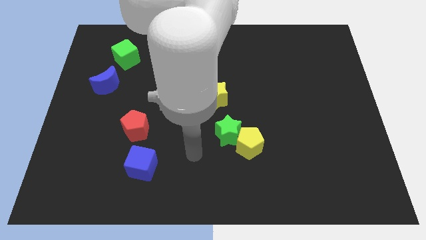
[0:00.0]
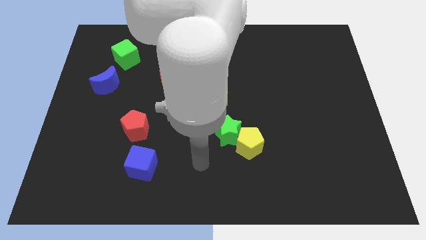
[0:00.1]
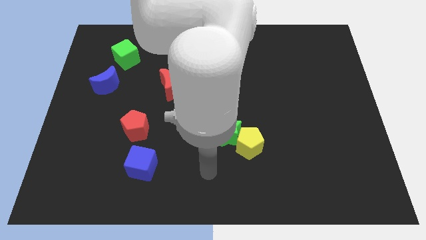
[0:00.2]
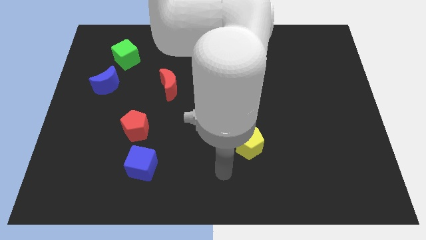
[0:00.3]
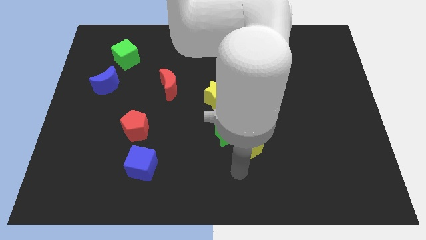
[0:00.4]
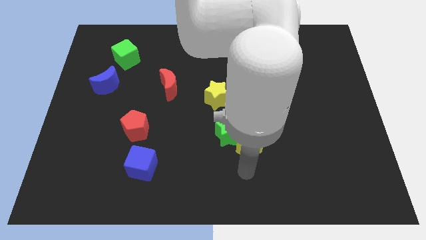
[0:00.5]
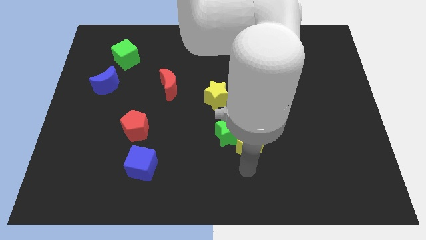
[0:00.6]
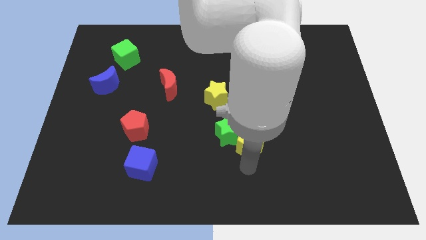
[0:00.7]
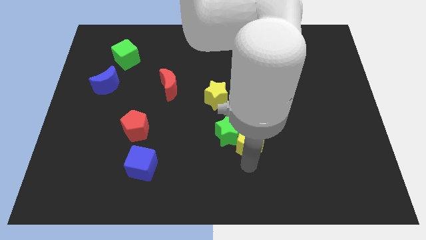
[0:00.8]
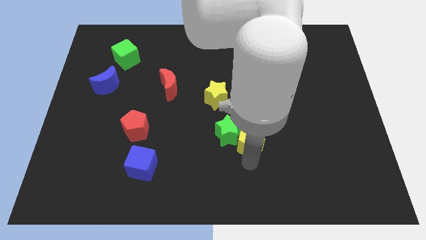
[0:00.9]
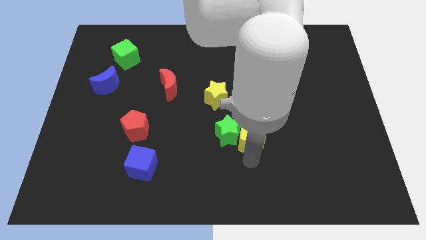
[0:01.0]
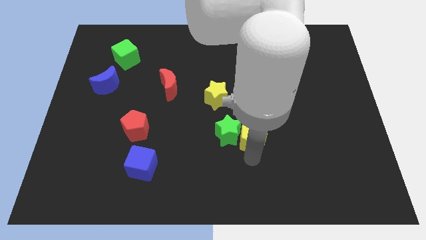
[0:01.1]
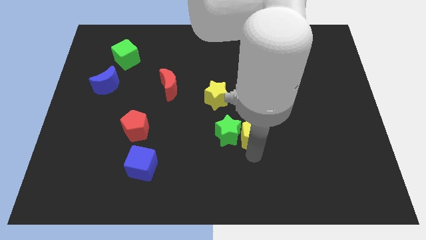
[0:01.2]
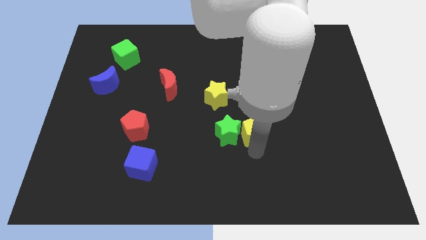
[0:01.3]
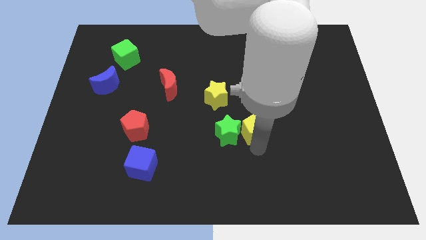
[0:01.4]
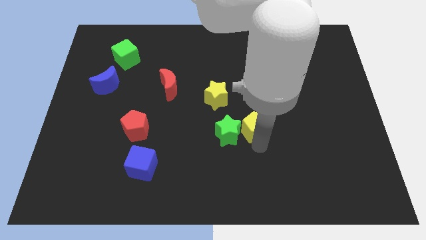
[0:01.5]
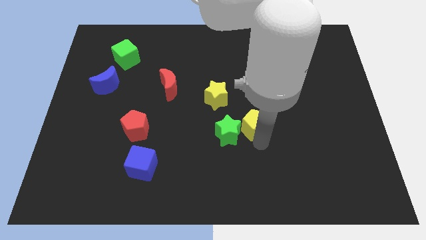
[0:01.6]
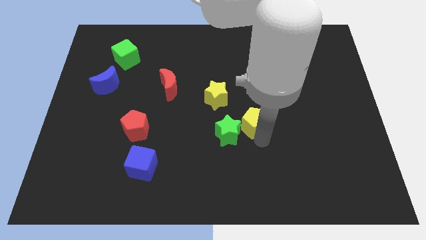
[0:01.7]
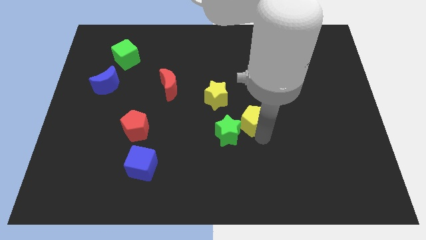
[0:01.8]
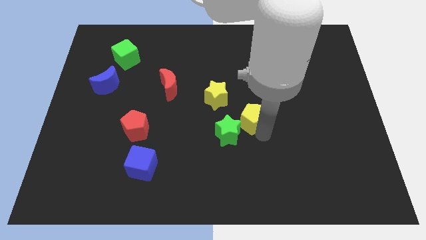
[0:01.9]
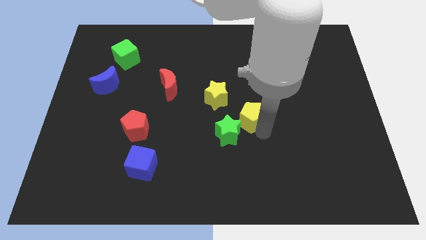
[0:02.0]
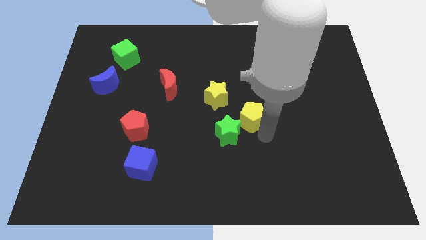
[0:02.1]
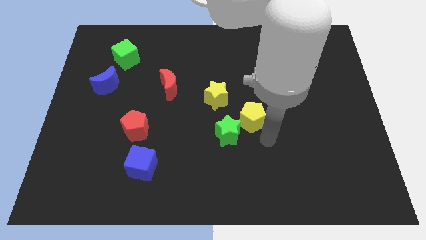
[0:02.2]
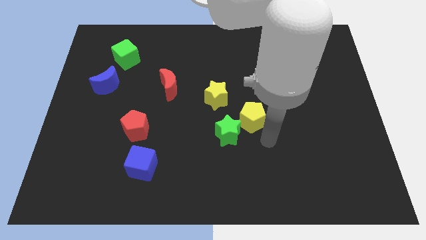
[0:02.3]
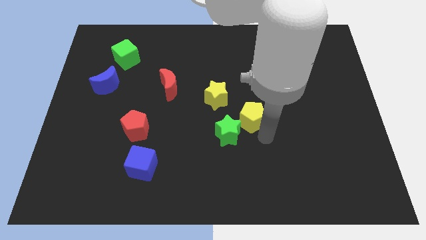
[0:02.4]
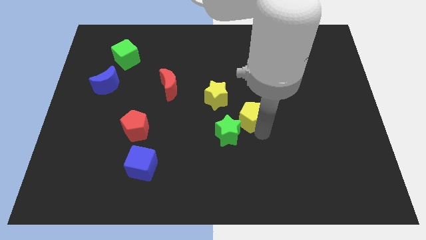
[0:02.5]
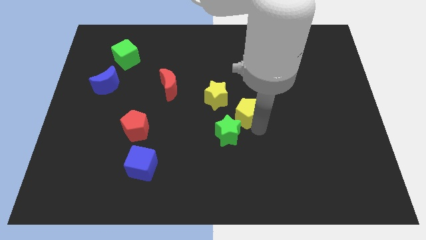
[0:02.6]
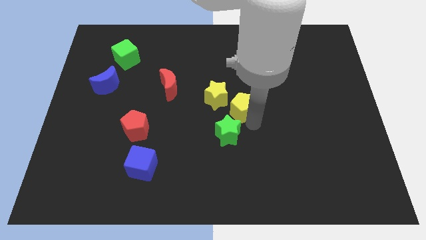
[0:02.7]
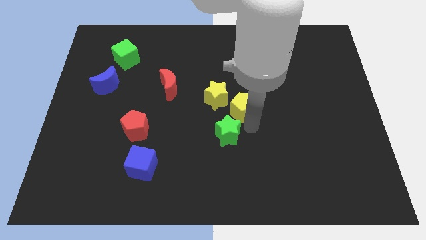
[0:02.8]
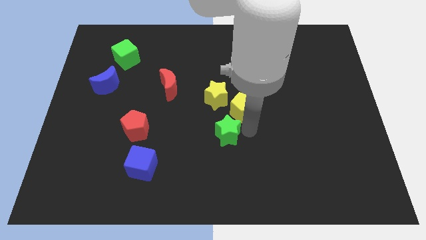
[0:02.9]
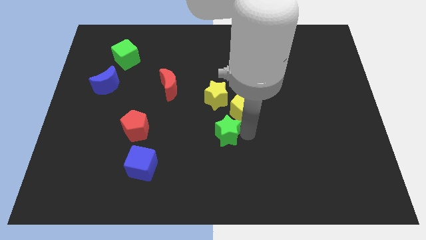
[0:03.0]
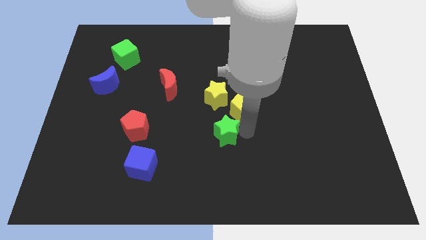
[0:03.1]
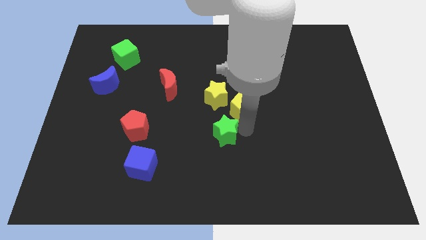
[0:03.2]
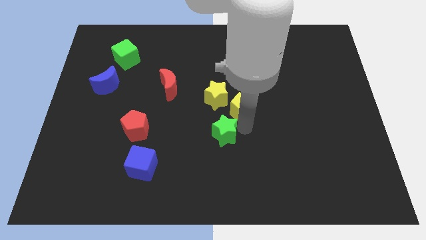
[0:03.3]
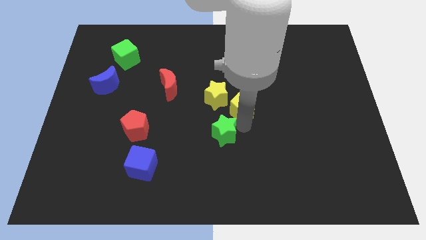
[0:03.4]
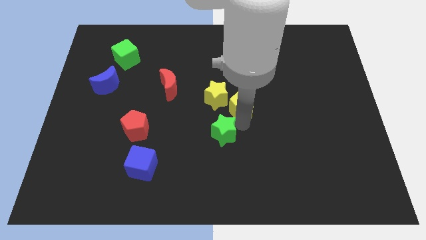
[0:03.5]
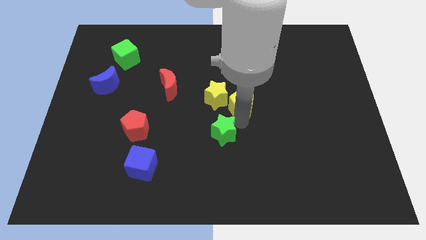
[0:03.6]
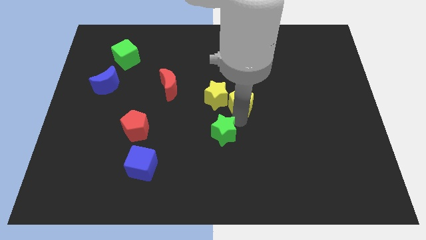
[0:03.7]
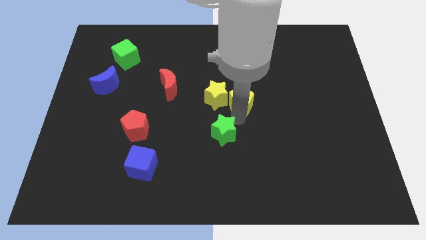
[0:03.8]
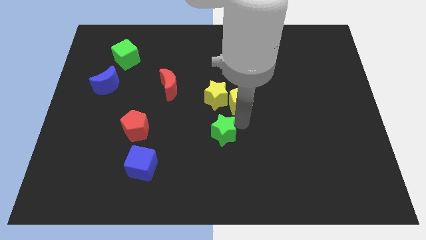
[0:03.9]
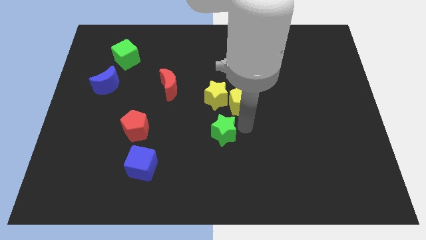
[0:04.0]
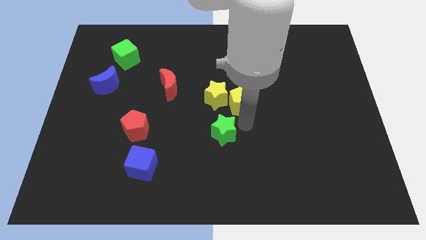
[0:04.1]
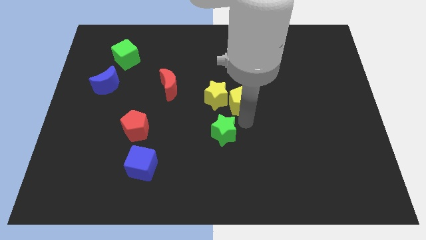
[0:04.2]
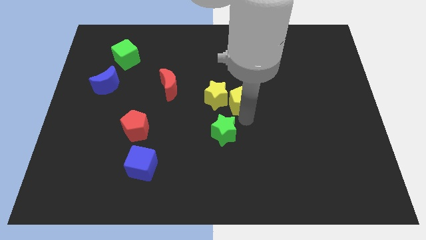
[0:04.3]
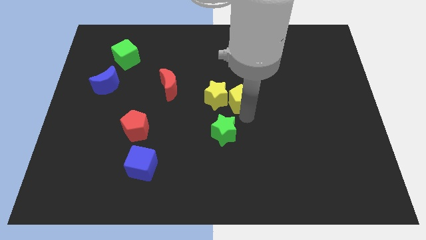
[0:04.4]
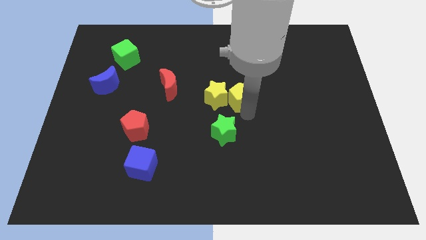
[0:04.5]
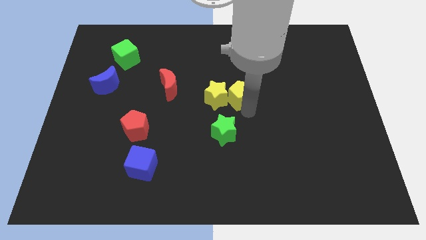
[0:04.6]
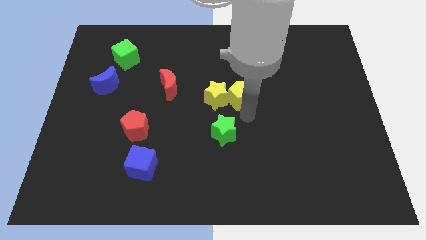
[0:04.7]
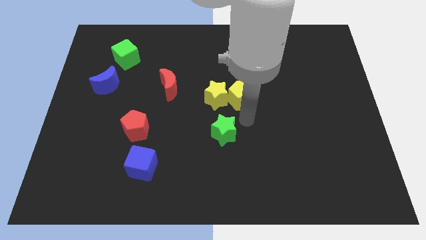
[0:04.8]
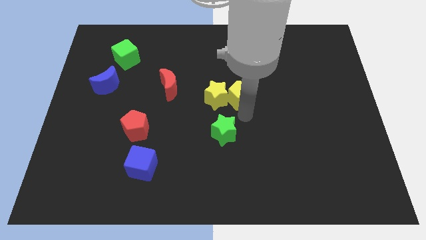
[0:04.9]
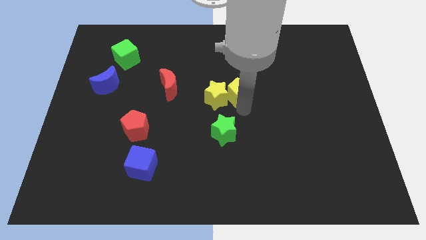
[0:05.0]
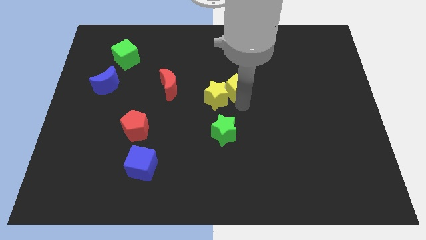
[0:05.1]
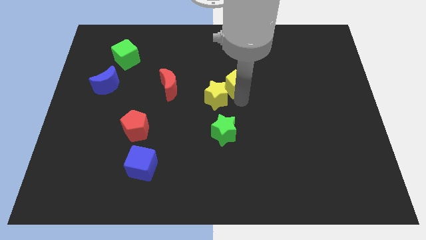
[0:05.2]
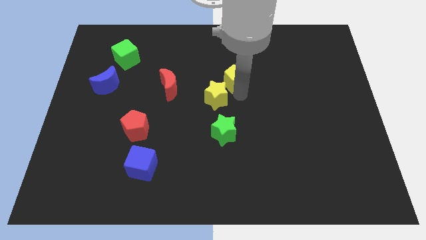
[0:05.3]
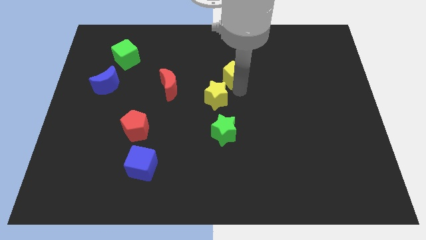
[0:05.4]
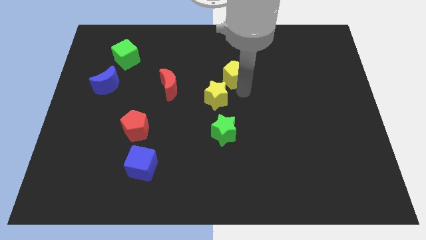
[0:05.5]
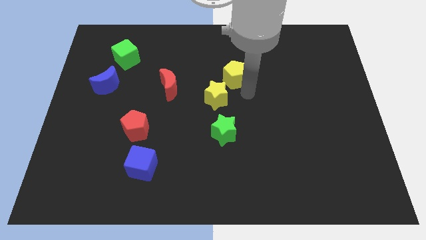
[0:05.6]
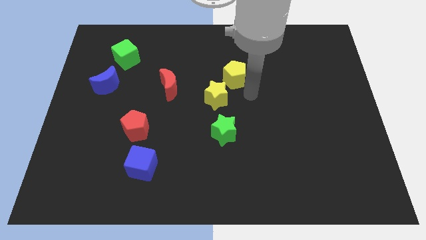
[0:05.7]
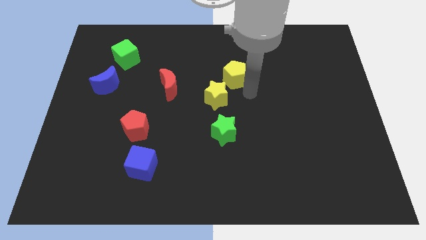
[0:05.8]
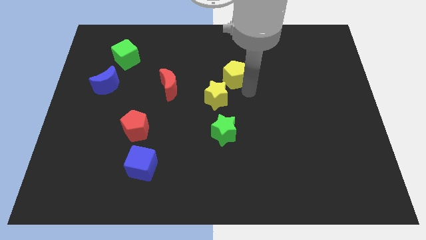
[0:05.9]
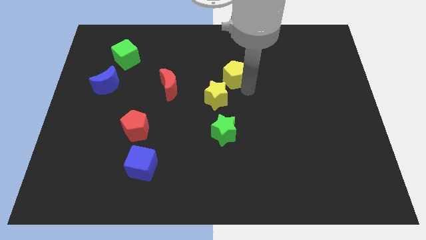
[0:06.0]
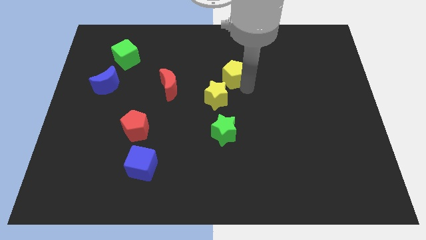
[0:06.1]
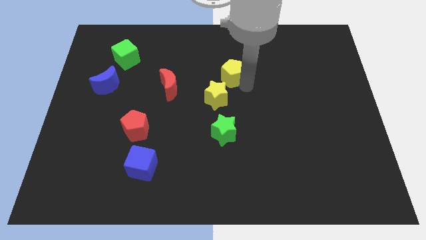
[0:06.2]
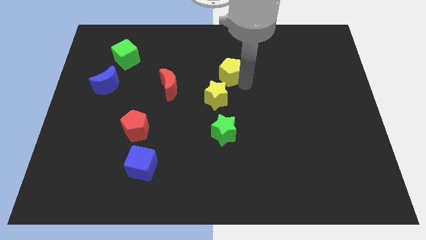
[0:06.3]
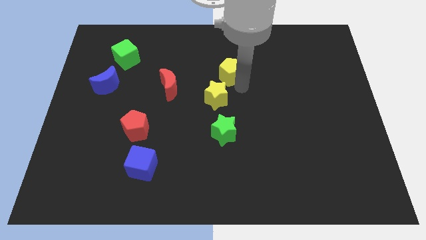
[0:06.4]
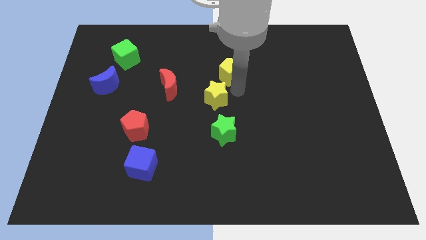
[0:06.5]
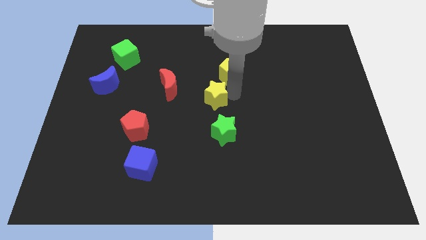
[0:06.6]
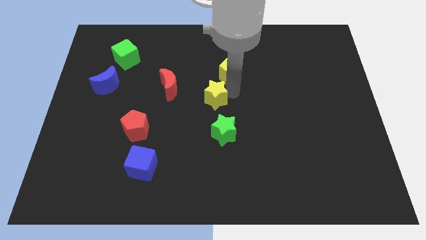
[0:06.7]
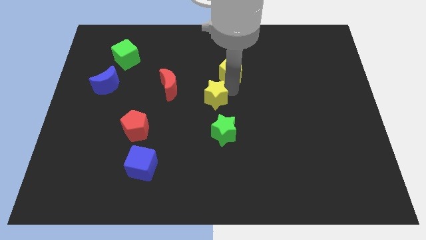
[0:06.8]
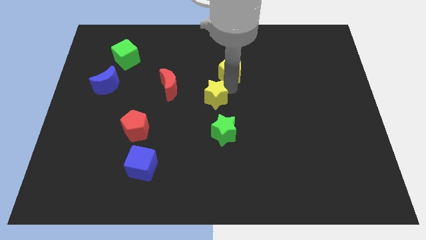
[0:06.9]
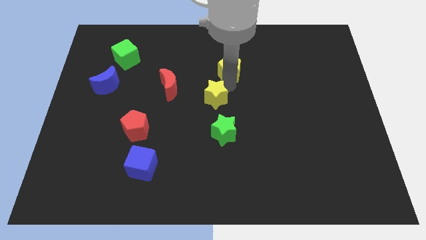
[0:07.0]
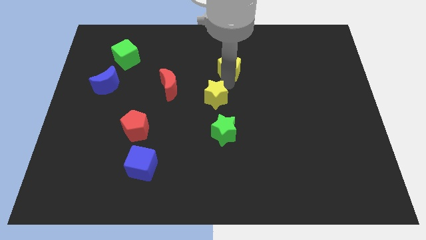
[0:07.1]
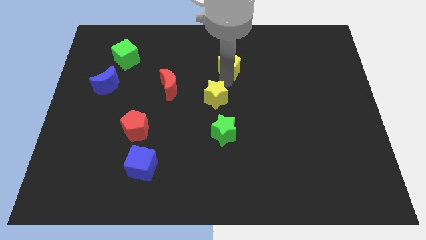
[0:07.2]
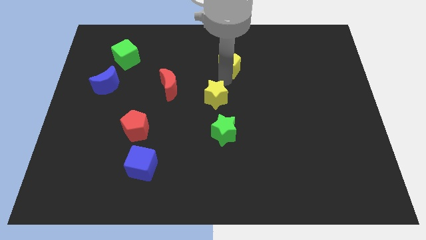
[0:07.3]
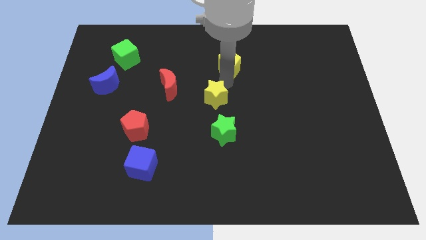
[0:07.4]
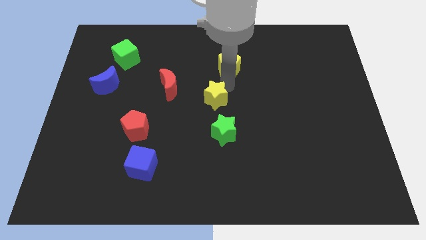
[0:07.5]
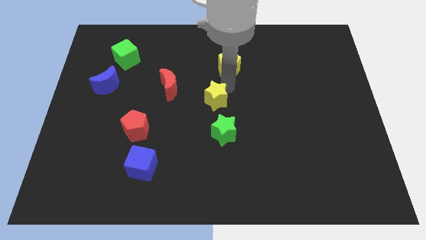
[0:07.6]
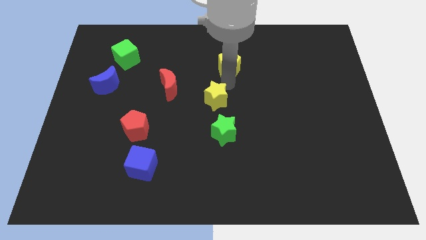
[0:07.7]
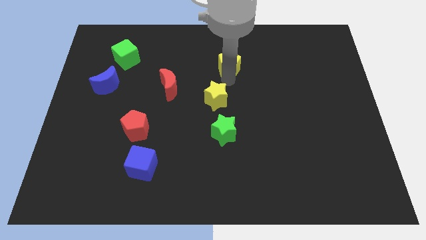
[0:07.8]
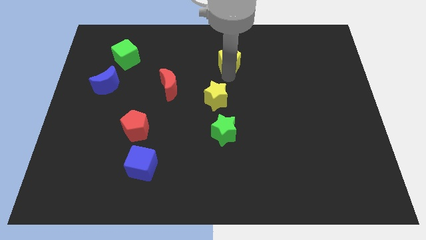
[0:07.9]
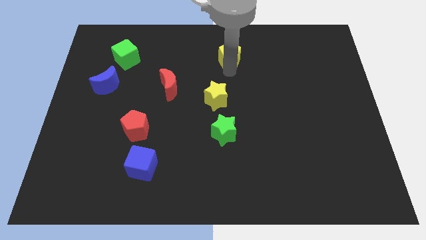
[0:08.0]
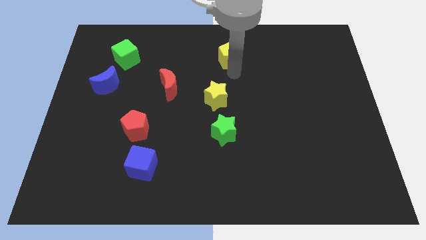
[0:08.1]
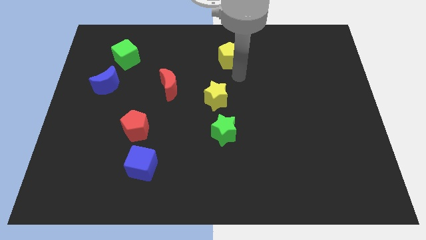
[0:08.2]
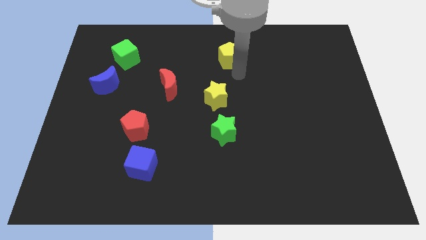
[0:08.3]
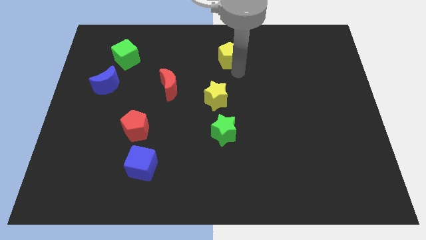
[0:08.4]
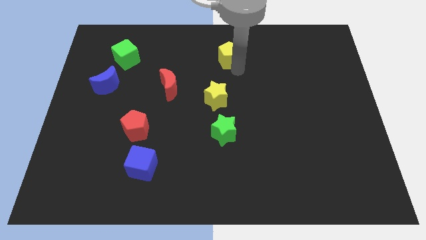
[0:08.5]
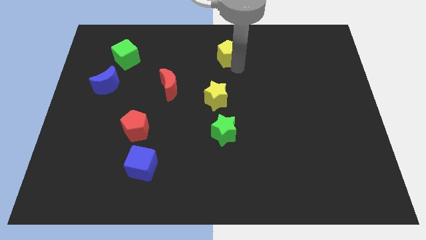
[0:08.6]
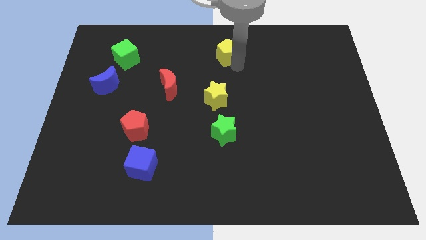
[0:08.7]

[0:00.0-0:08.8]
put the yellow pentagon to the towards your base
